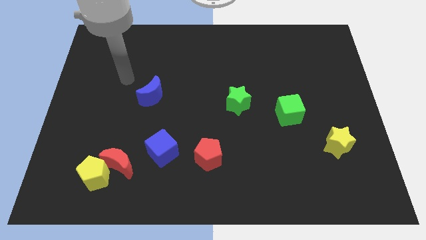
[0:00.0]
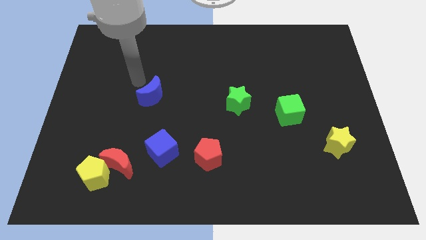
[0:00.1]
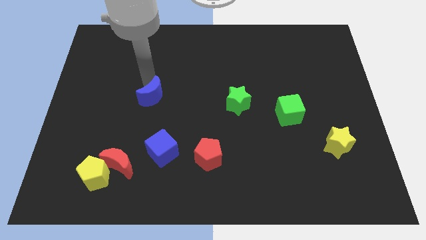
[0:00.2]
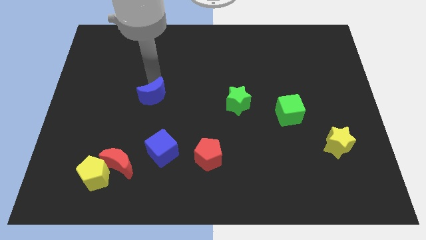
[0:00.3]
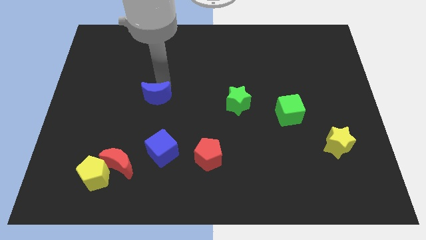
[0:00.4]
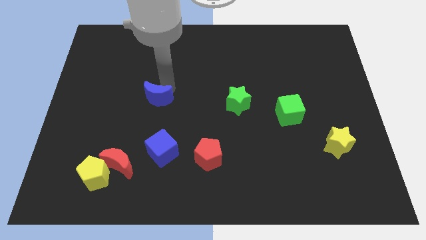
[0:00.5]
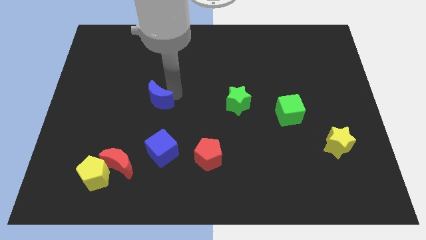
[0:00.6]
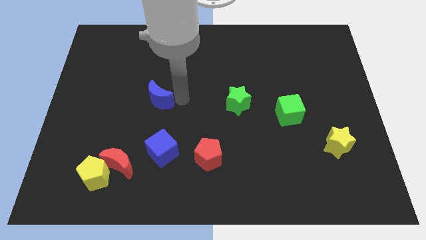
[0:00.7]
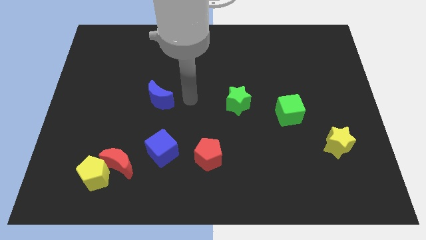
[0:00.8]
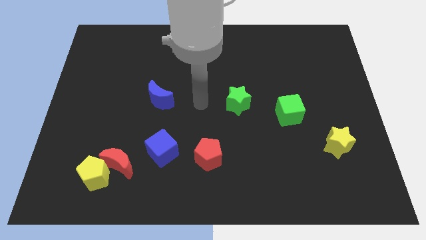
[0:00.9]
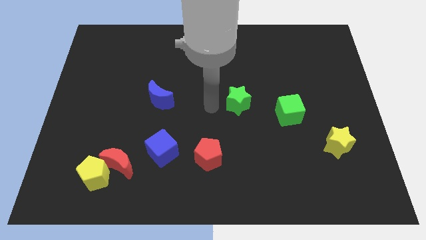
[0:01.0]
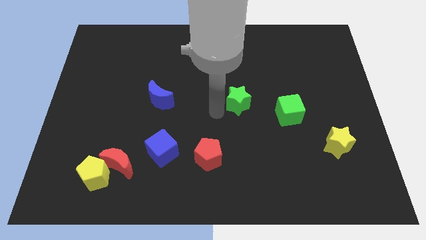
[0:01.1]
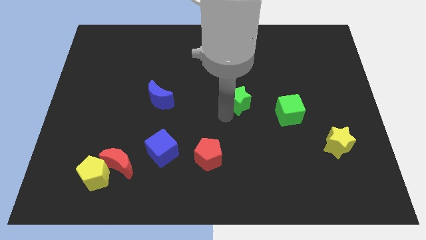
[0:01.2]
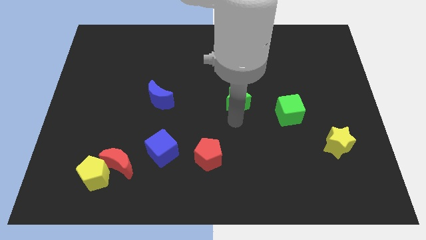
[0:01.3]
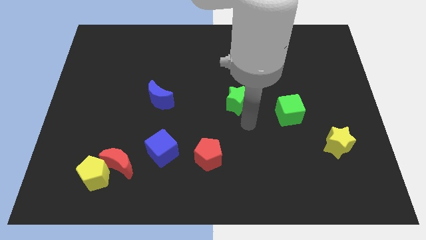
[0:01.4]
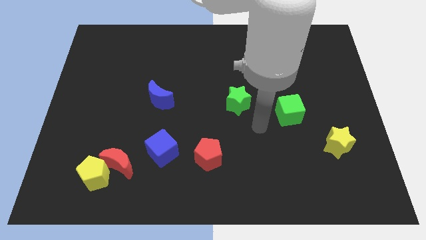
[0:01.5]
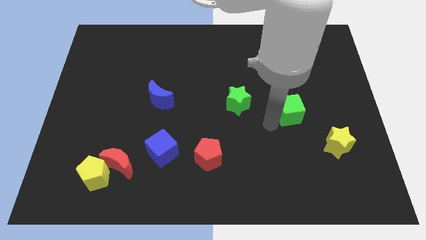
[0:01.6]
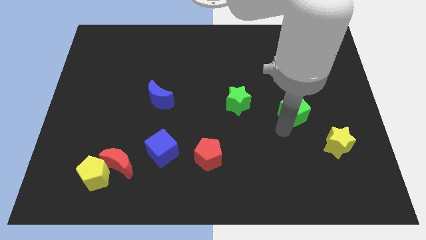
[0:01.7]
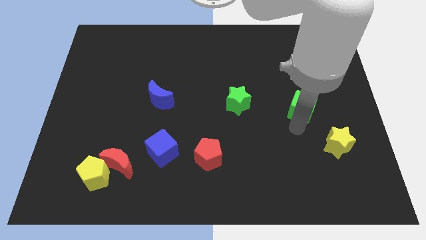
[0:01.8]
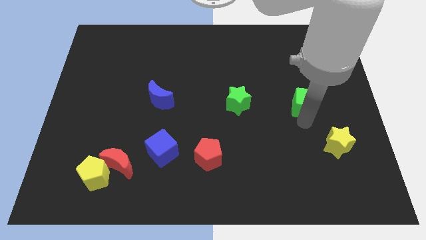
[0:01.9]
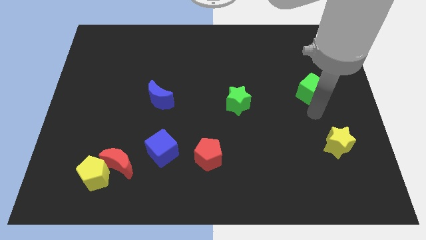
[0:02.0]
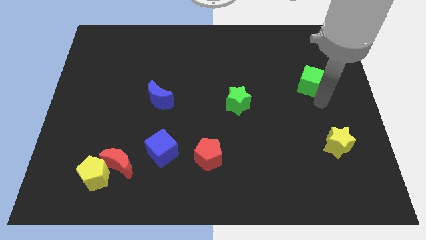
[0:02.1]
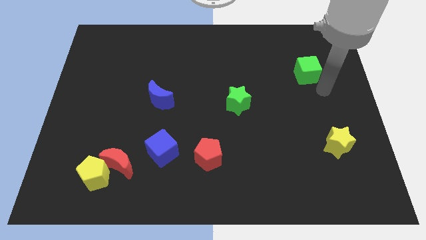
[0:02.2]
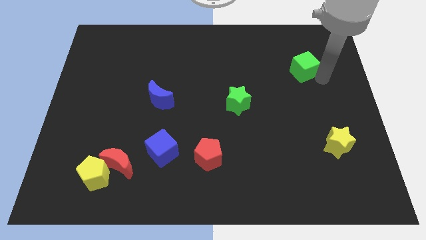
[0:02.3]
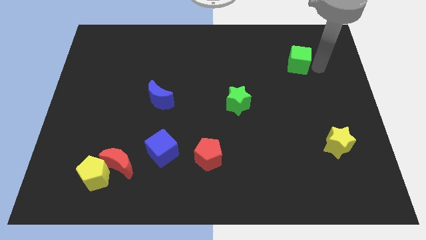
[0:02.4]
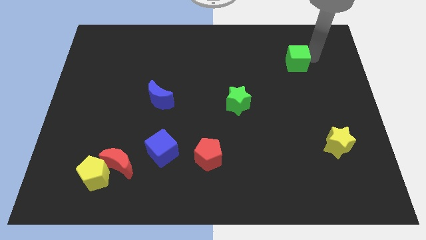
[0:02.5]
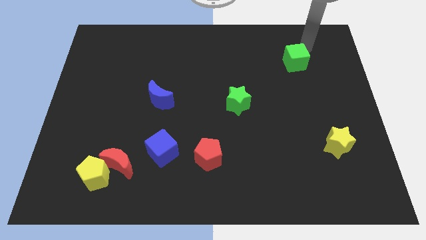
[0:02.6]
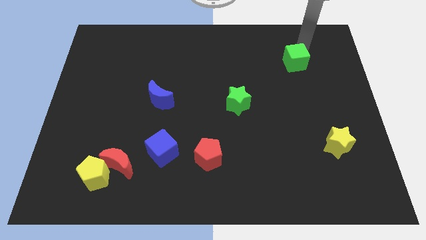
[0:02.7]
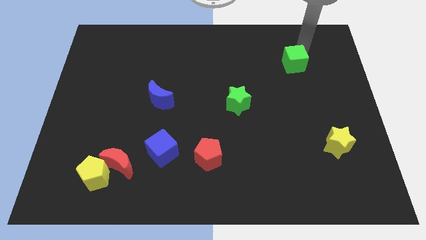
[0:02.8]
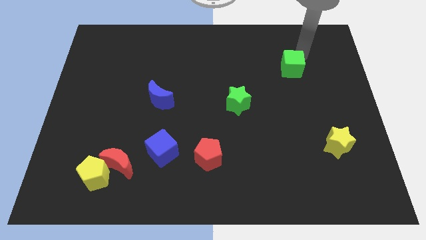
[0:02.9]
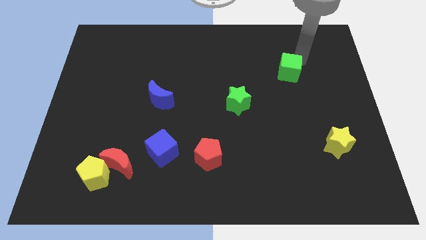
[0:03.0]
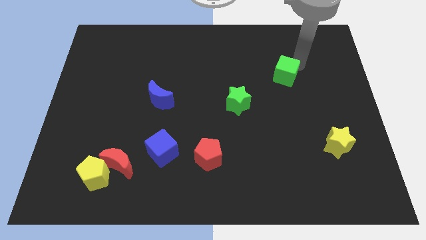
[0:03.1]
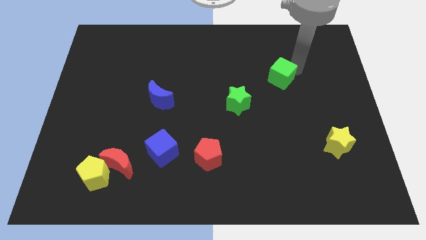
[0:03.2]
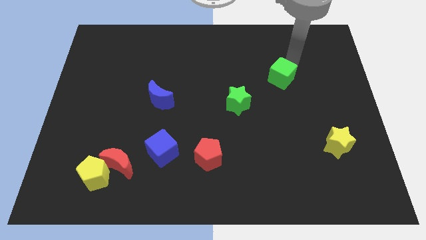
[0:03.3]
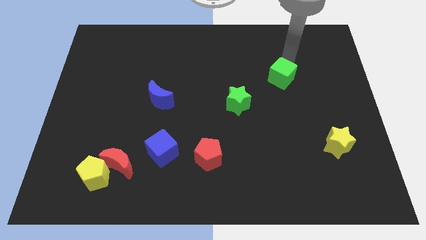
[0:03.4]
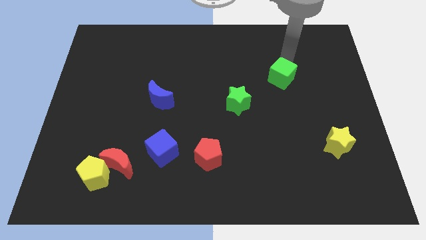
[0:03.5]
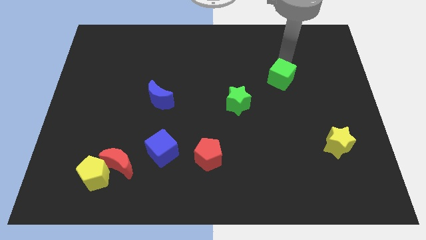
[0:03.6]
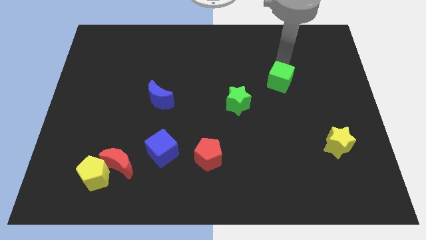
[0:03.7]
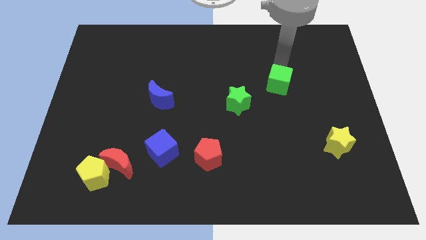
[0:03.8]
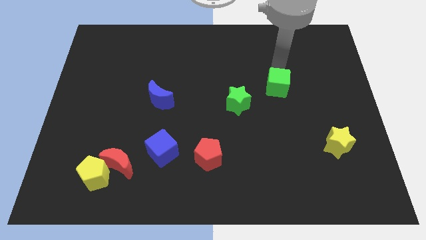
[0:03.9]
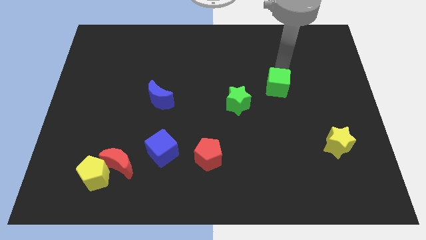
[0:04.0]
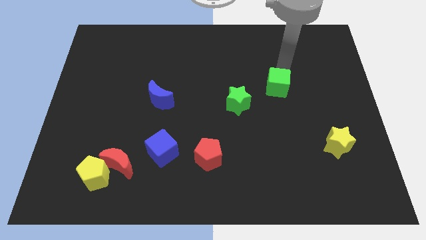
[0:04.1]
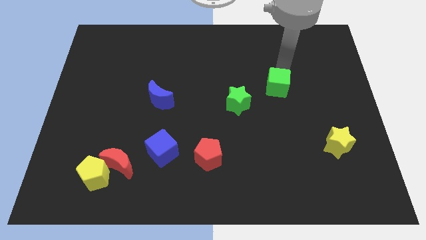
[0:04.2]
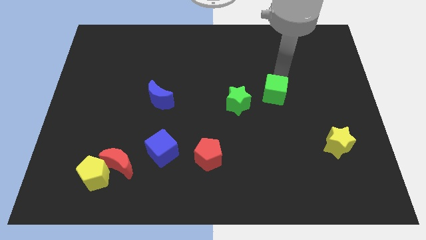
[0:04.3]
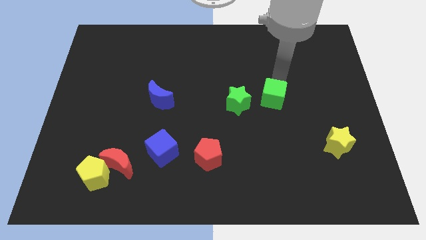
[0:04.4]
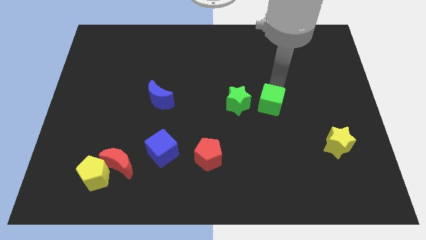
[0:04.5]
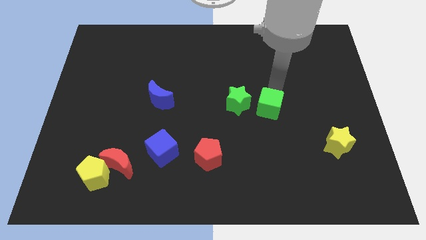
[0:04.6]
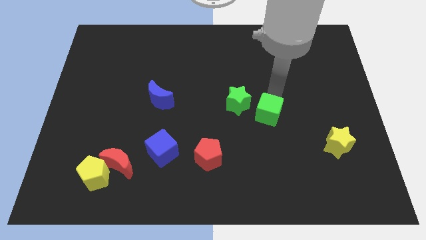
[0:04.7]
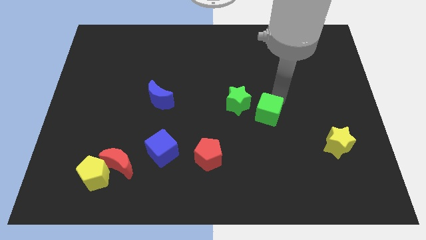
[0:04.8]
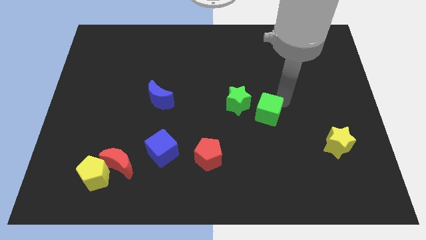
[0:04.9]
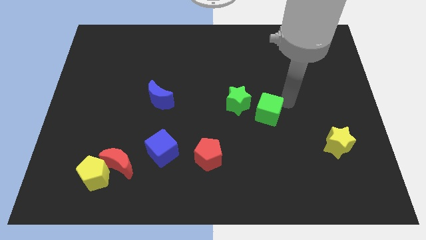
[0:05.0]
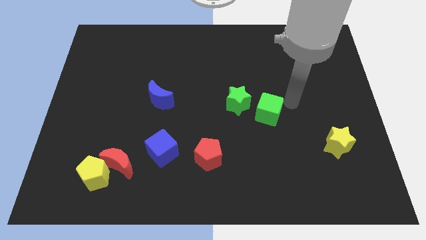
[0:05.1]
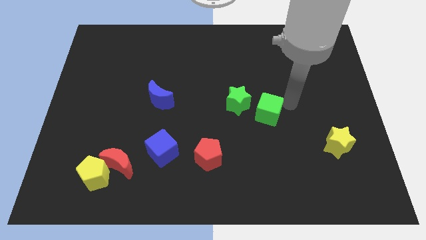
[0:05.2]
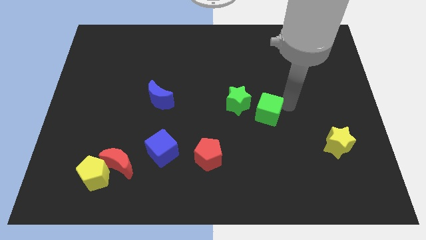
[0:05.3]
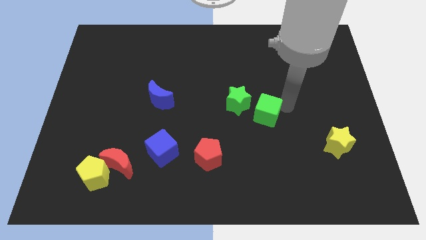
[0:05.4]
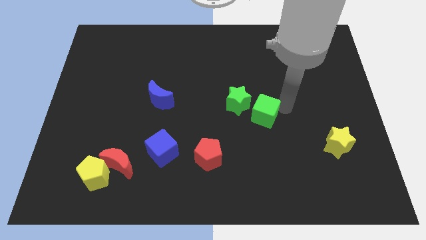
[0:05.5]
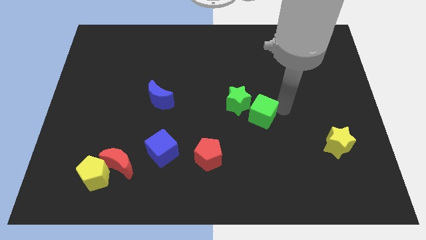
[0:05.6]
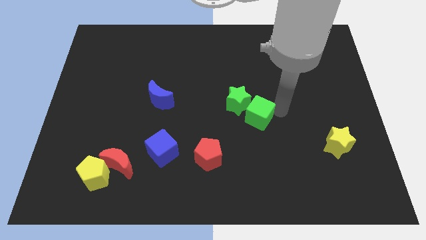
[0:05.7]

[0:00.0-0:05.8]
push the green cube somewhat to the left

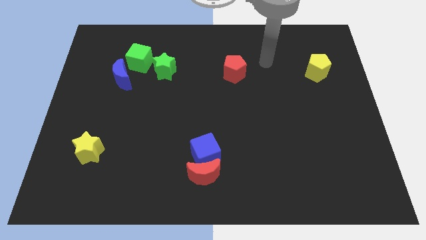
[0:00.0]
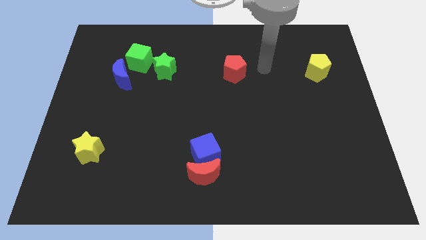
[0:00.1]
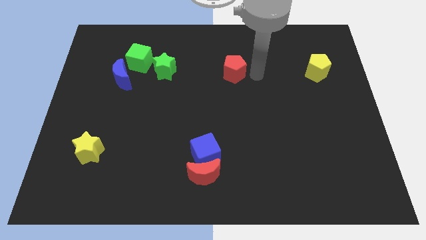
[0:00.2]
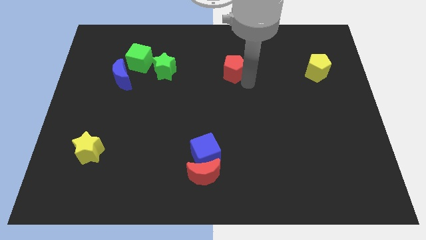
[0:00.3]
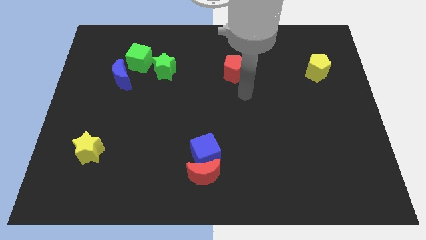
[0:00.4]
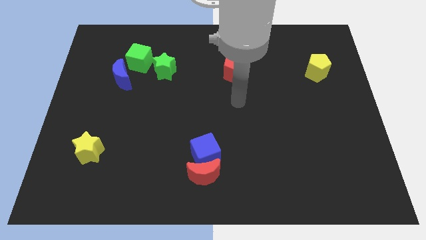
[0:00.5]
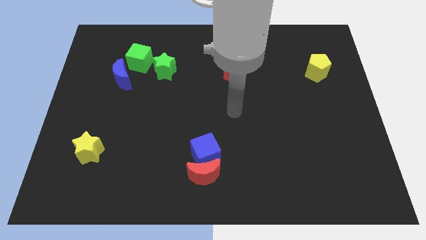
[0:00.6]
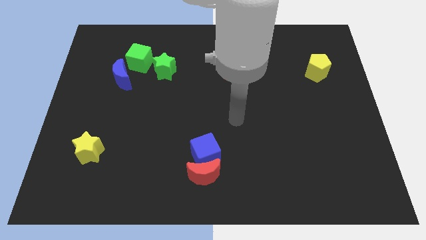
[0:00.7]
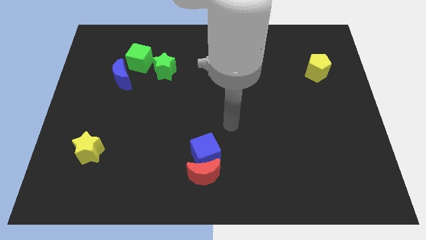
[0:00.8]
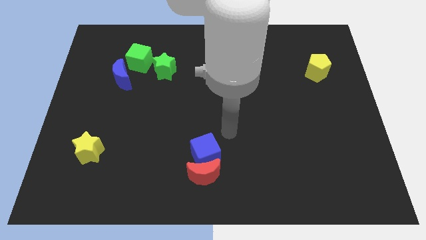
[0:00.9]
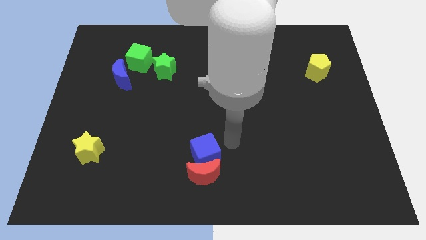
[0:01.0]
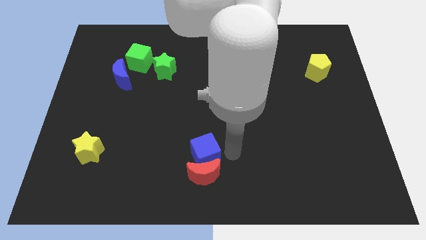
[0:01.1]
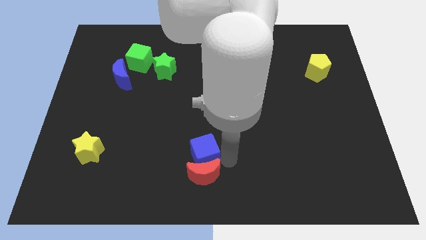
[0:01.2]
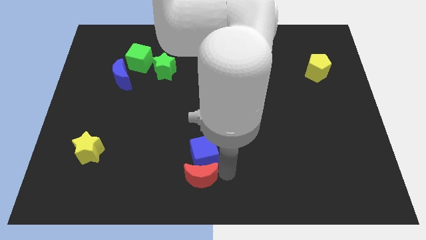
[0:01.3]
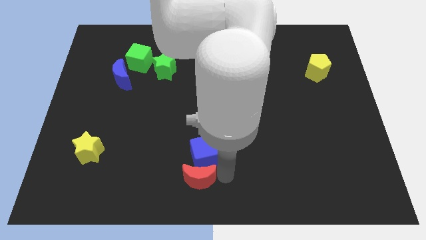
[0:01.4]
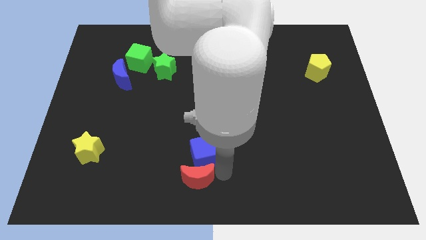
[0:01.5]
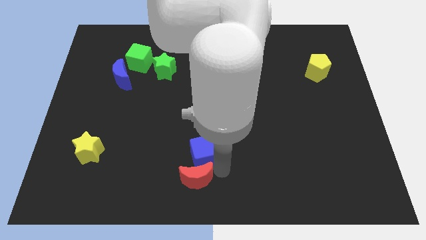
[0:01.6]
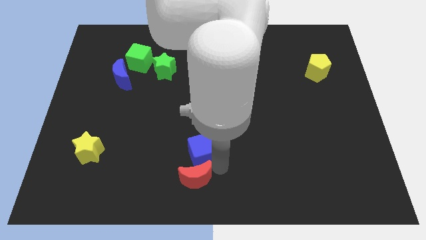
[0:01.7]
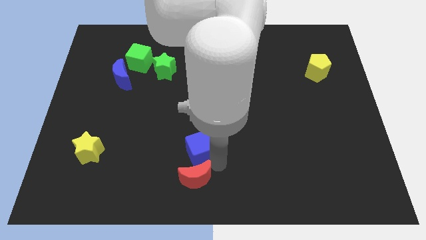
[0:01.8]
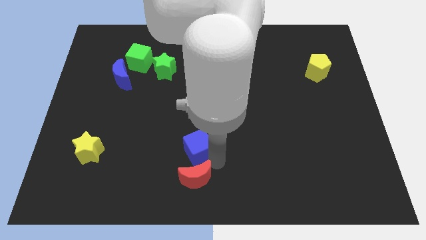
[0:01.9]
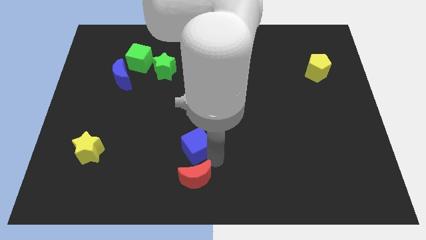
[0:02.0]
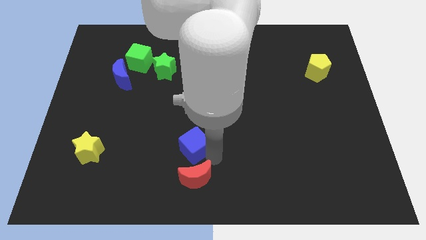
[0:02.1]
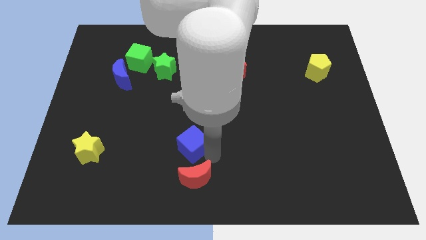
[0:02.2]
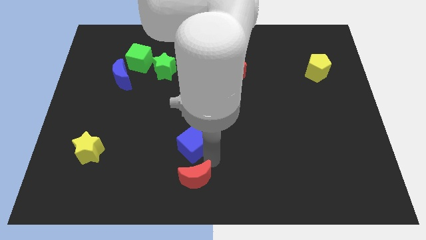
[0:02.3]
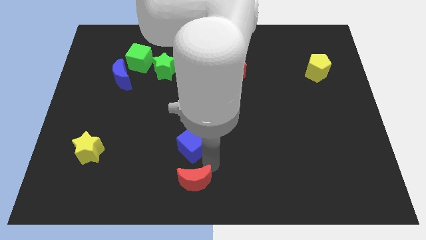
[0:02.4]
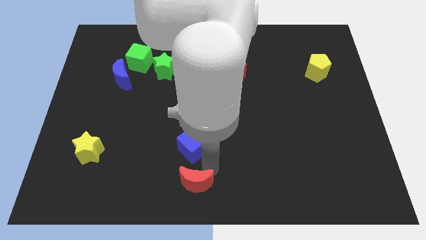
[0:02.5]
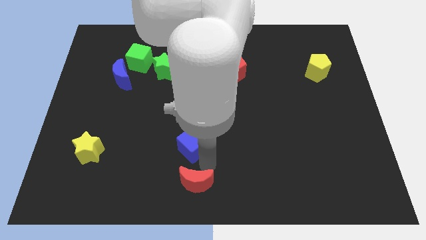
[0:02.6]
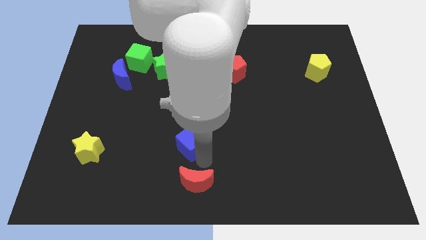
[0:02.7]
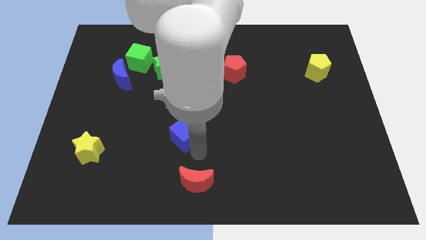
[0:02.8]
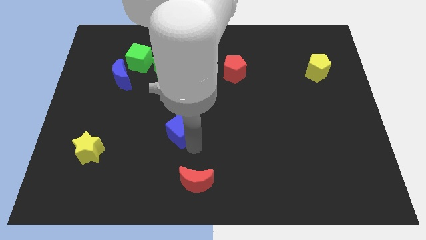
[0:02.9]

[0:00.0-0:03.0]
push the blue cube upwards and left diagonally a bit
